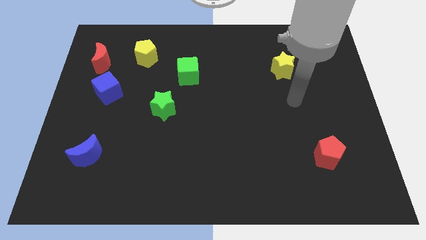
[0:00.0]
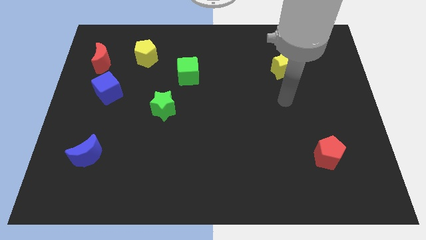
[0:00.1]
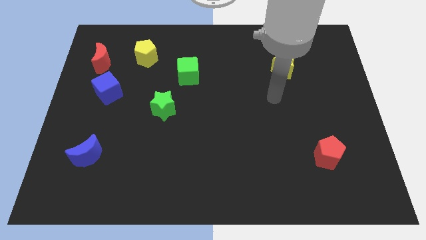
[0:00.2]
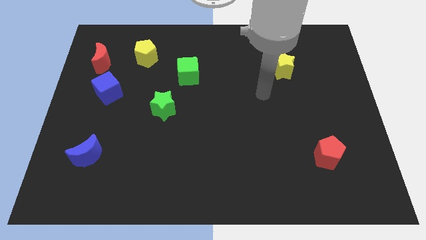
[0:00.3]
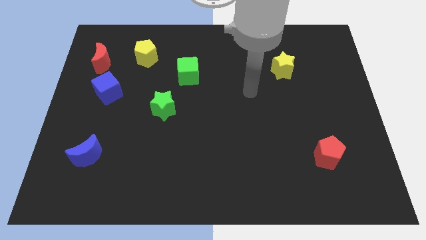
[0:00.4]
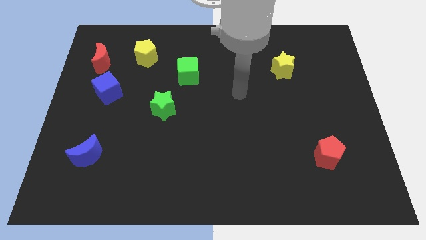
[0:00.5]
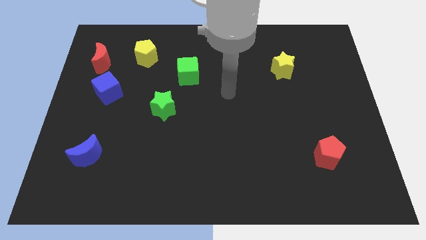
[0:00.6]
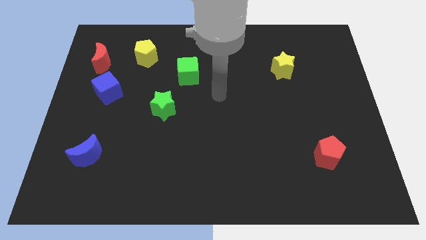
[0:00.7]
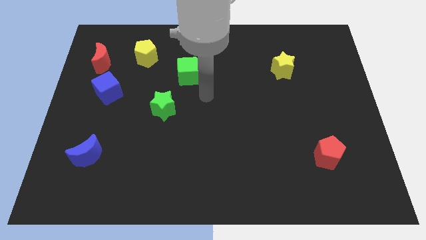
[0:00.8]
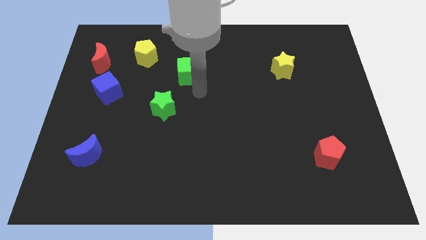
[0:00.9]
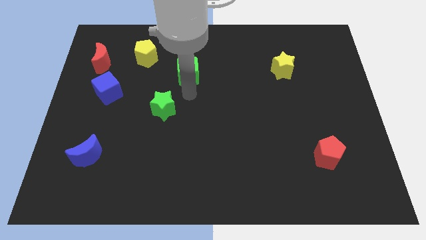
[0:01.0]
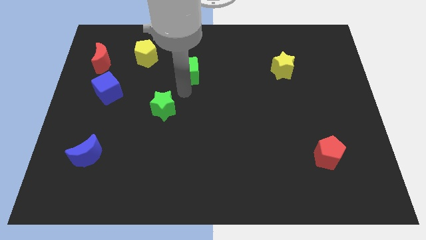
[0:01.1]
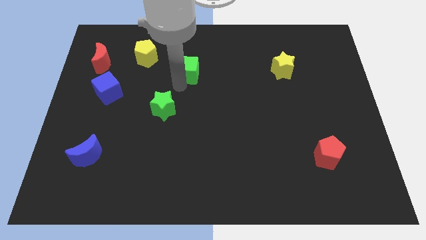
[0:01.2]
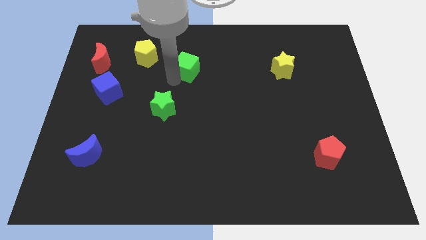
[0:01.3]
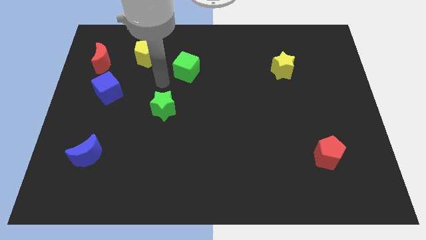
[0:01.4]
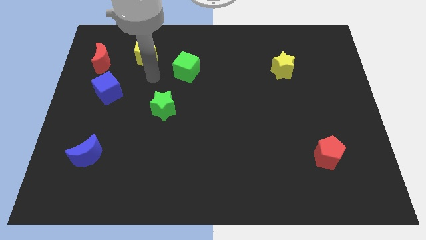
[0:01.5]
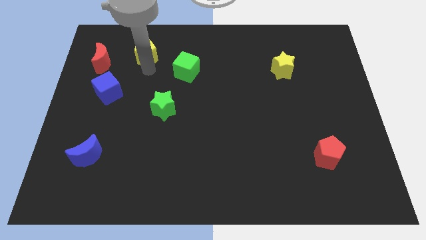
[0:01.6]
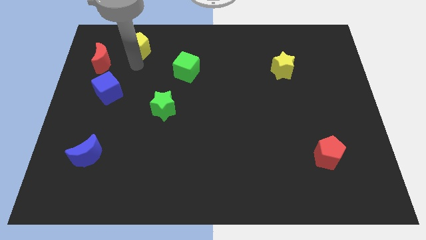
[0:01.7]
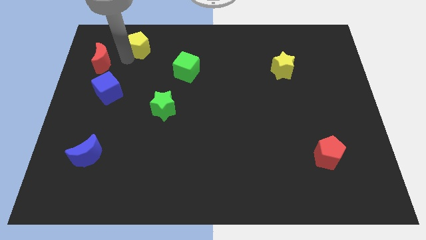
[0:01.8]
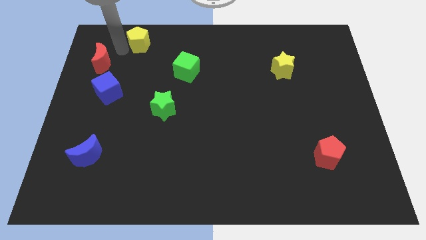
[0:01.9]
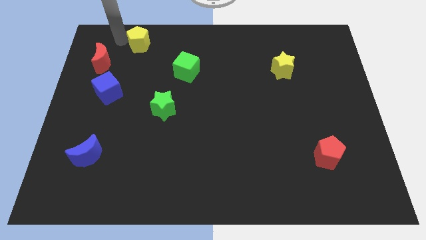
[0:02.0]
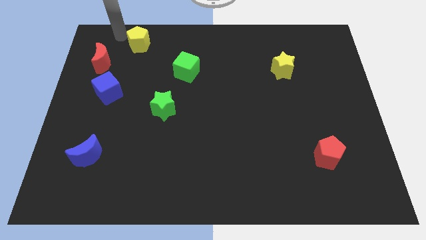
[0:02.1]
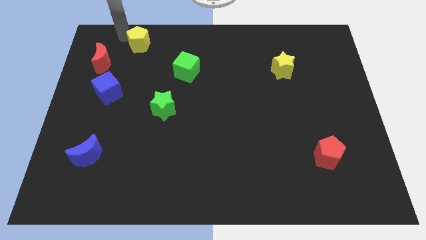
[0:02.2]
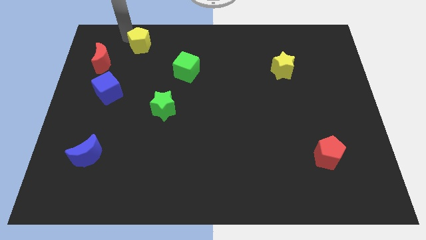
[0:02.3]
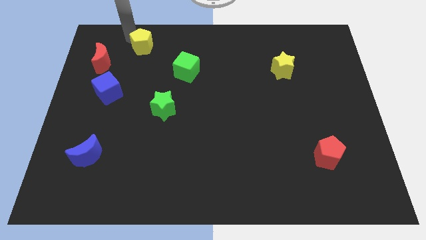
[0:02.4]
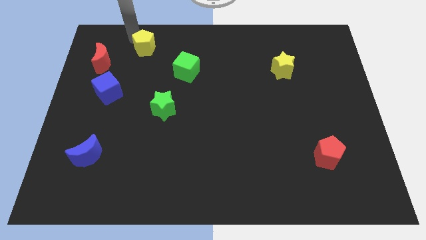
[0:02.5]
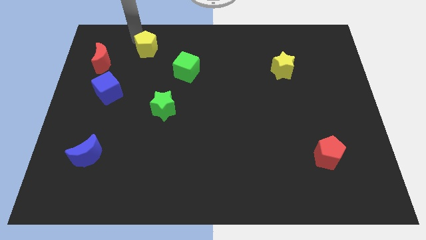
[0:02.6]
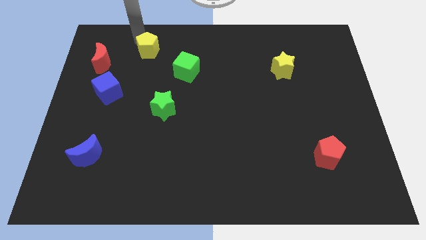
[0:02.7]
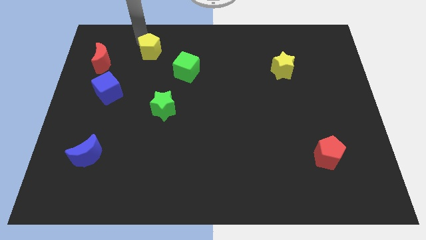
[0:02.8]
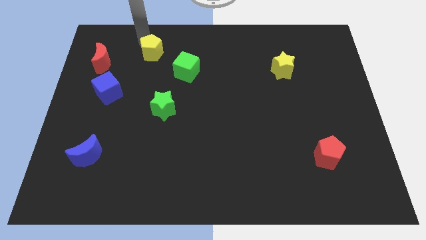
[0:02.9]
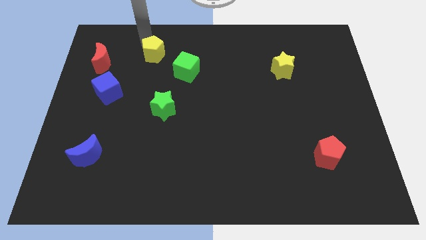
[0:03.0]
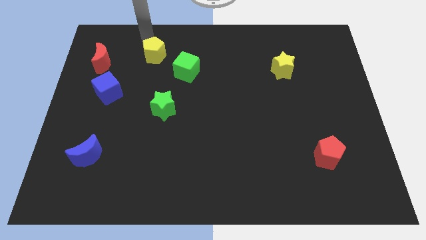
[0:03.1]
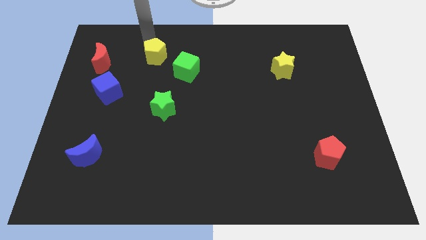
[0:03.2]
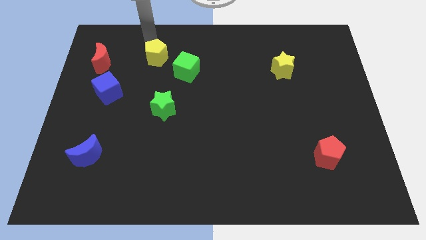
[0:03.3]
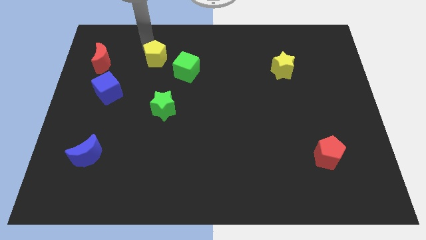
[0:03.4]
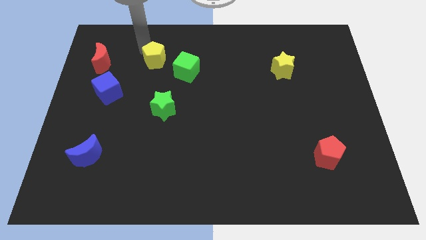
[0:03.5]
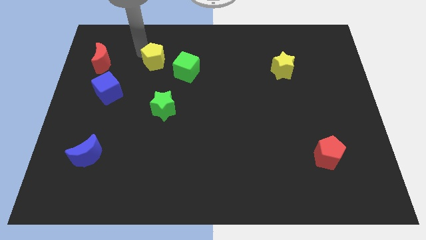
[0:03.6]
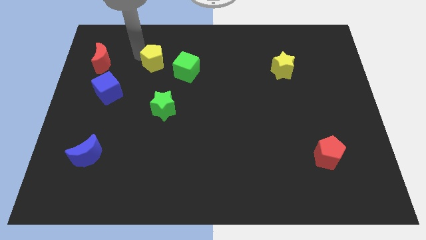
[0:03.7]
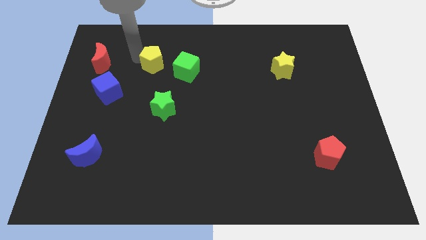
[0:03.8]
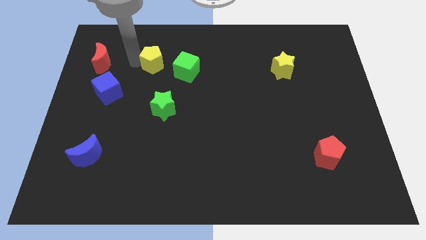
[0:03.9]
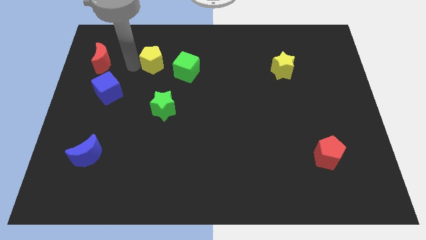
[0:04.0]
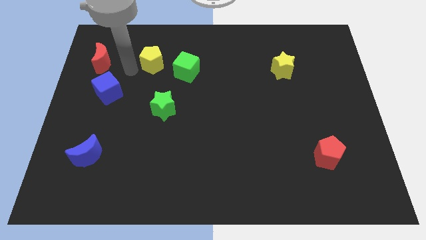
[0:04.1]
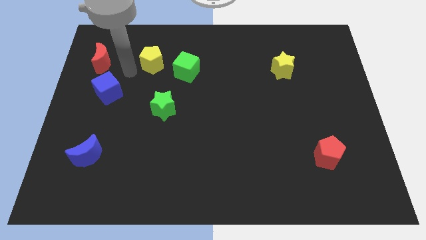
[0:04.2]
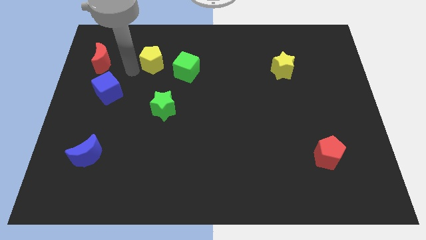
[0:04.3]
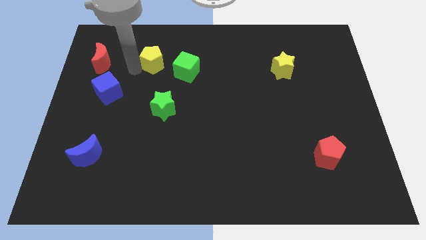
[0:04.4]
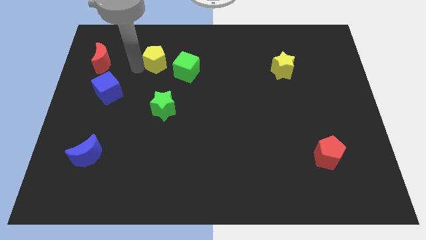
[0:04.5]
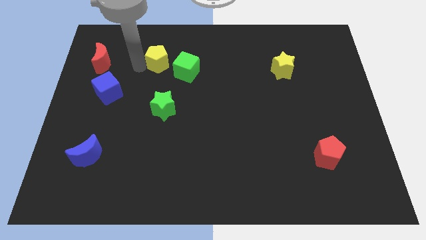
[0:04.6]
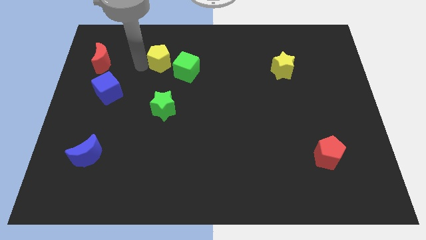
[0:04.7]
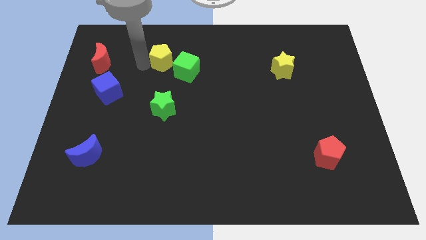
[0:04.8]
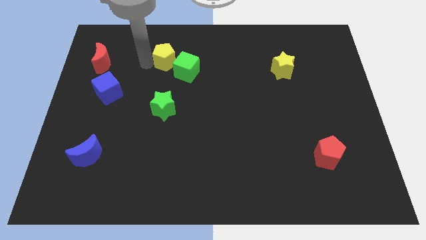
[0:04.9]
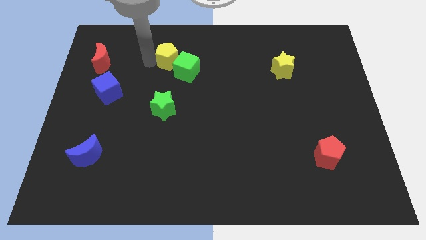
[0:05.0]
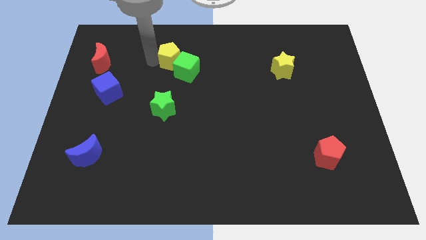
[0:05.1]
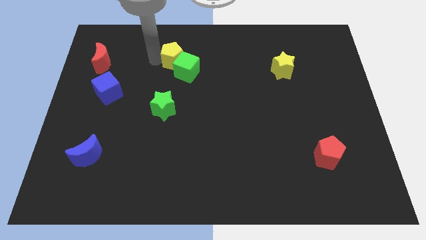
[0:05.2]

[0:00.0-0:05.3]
slightly move the yellow pentagon right

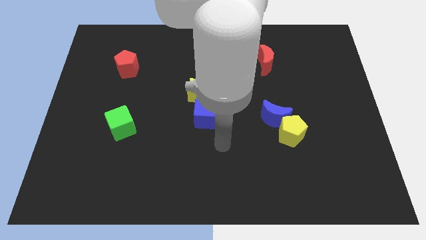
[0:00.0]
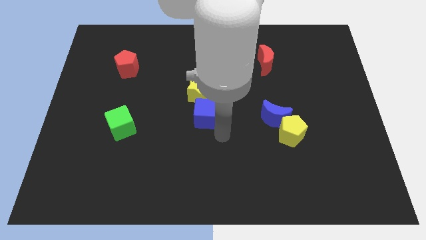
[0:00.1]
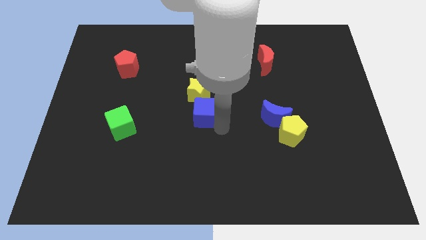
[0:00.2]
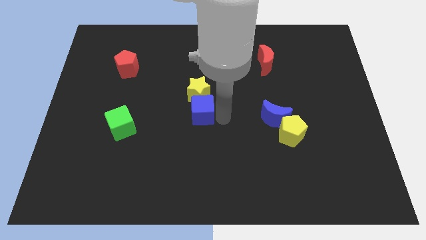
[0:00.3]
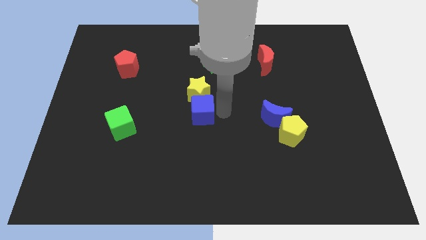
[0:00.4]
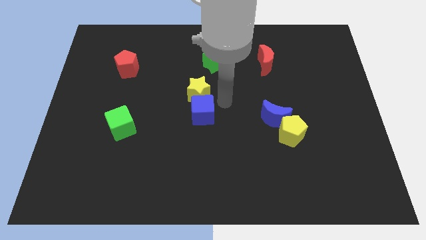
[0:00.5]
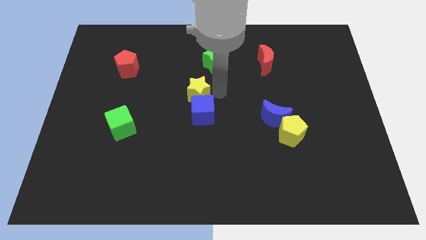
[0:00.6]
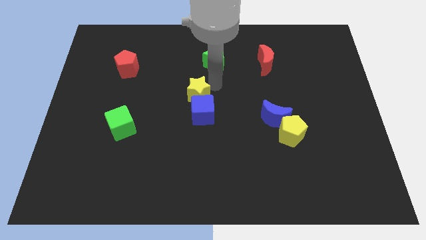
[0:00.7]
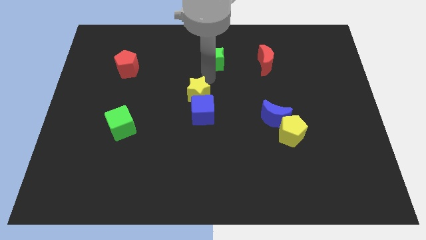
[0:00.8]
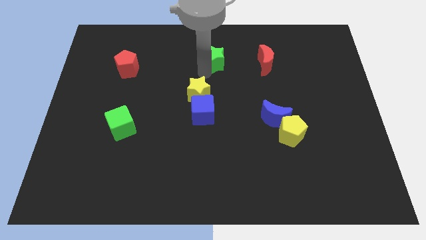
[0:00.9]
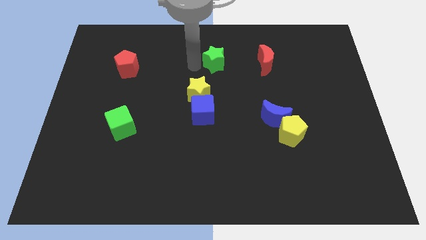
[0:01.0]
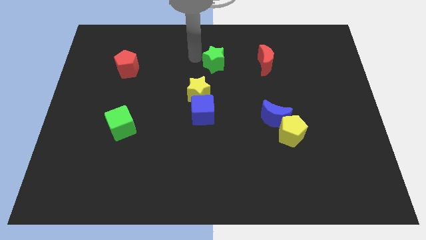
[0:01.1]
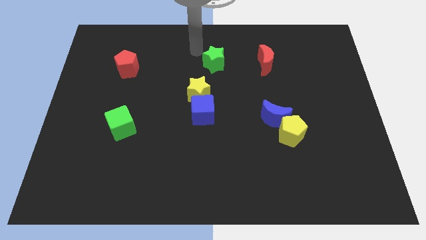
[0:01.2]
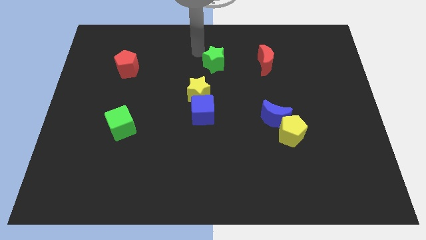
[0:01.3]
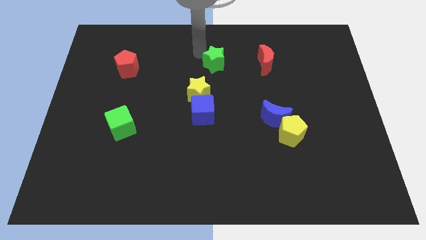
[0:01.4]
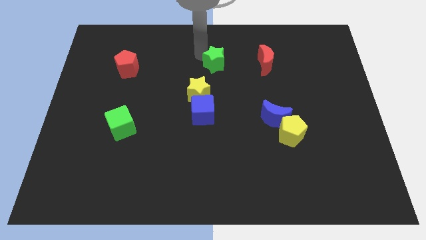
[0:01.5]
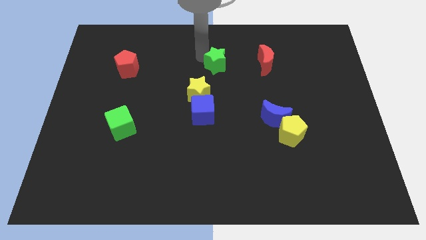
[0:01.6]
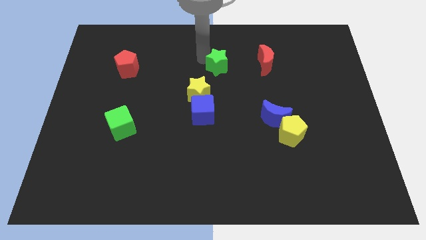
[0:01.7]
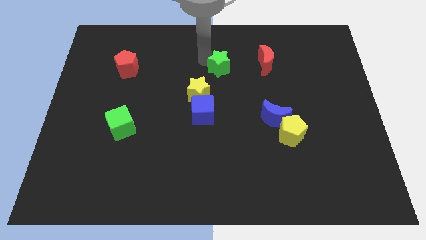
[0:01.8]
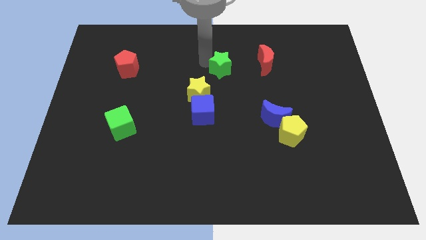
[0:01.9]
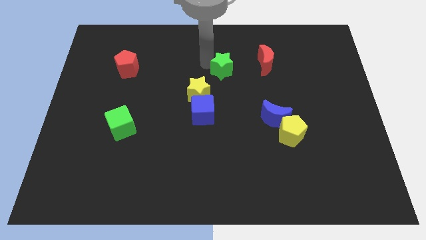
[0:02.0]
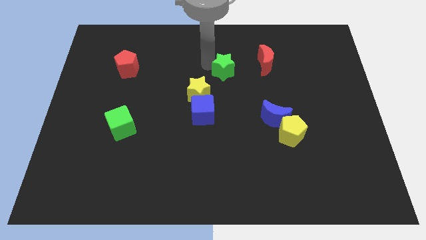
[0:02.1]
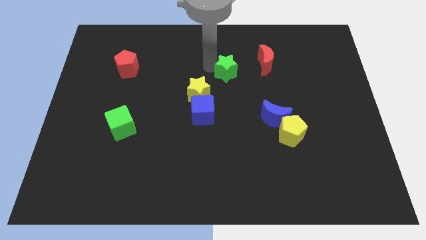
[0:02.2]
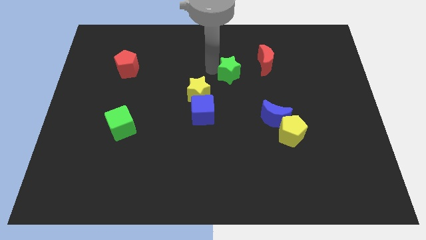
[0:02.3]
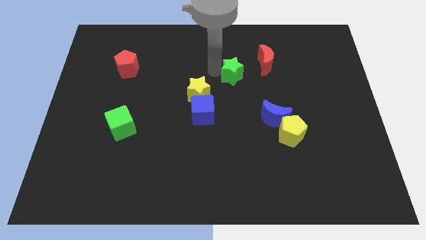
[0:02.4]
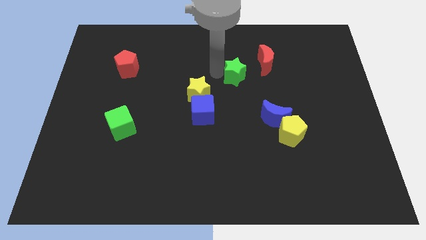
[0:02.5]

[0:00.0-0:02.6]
slightly move the green star diagonally downwards and to the right

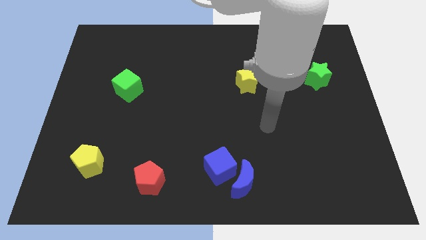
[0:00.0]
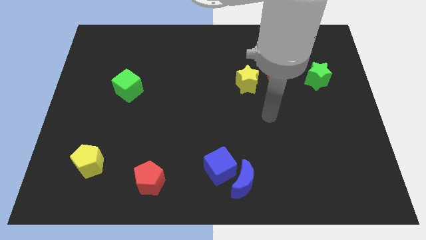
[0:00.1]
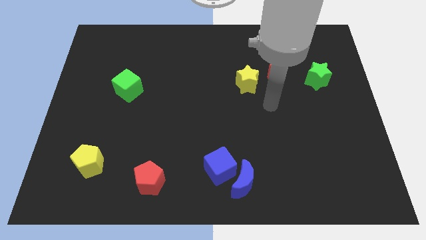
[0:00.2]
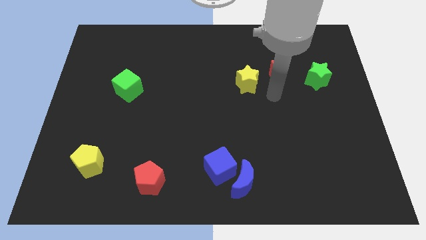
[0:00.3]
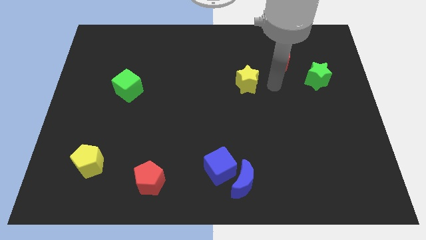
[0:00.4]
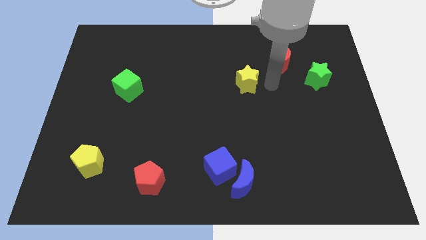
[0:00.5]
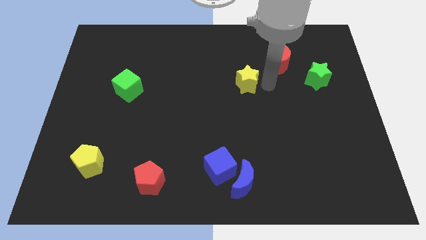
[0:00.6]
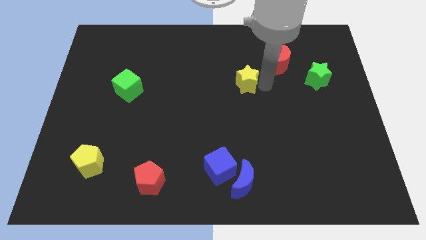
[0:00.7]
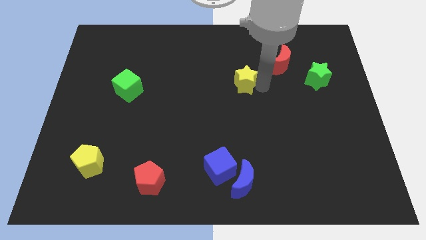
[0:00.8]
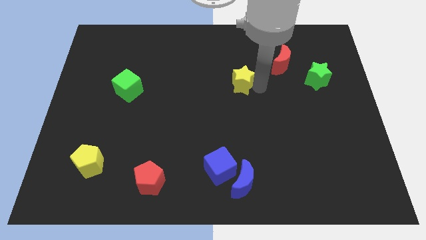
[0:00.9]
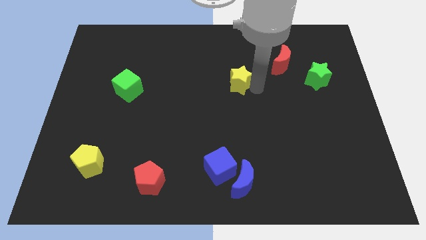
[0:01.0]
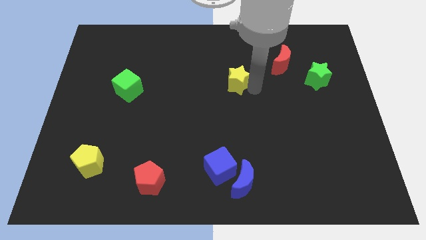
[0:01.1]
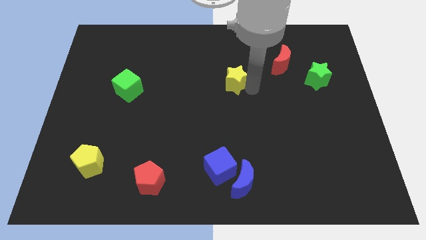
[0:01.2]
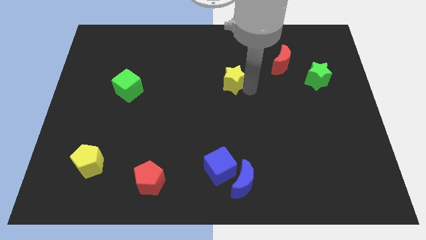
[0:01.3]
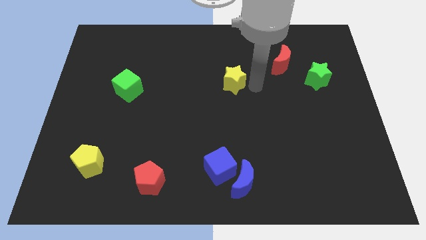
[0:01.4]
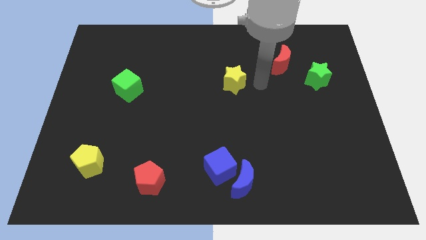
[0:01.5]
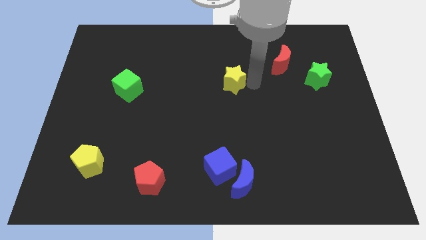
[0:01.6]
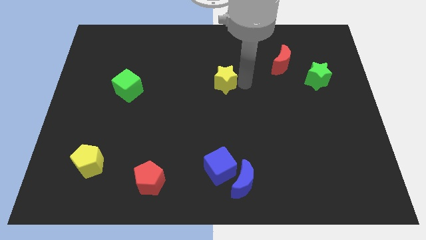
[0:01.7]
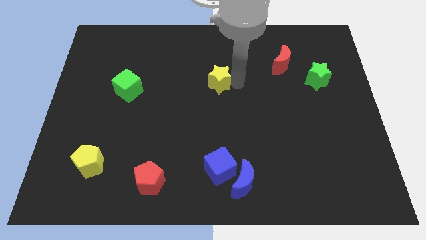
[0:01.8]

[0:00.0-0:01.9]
slightly move the yellow star left
